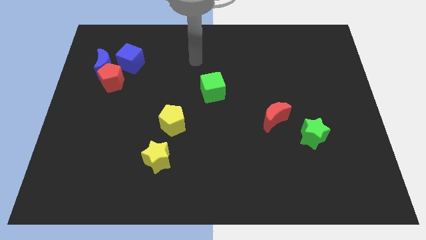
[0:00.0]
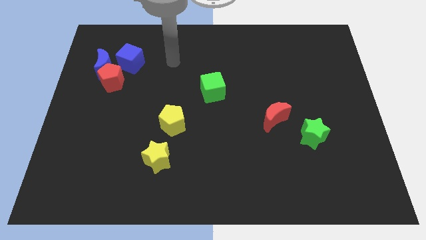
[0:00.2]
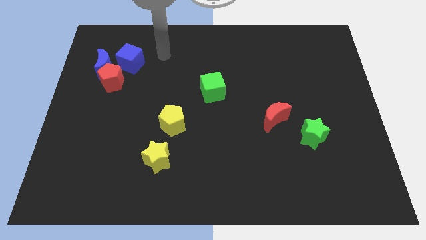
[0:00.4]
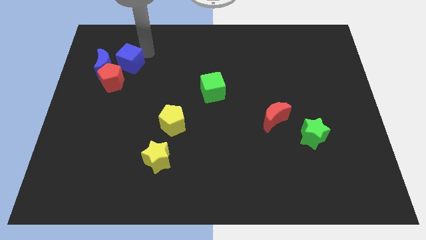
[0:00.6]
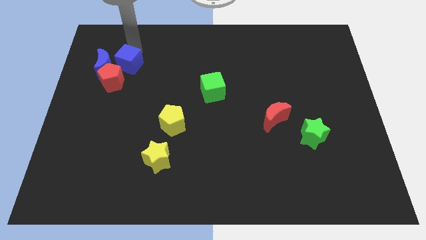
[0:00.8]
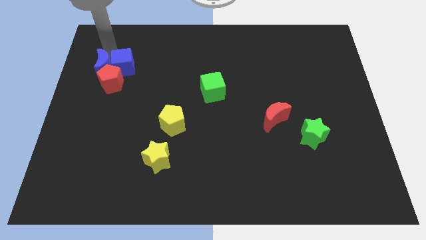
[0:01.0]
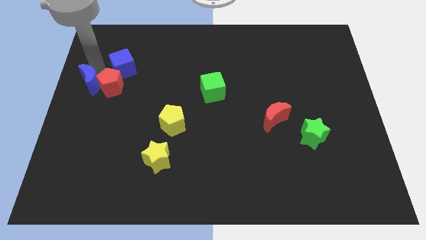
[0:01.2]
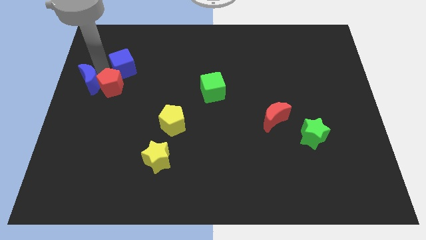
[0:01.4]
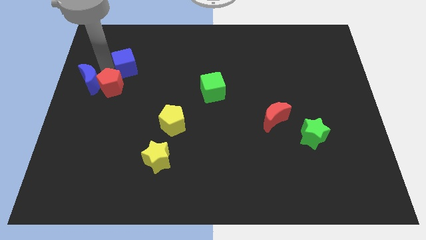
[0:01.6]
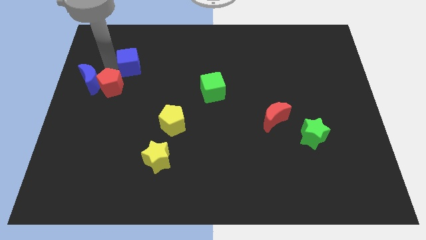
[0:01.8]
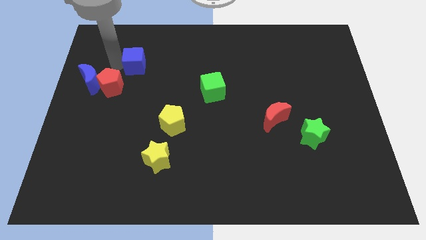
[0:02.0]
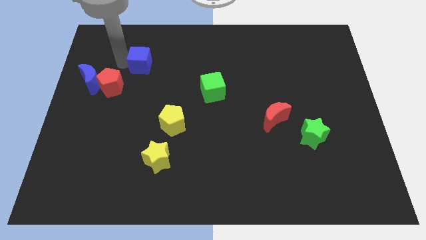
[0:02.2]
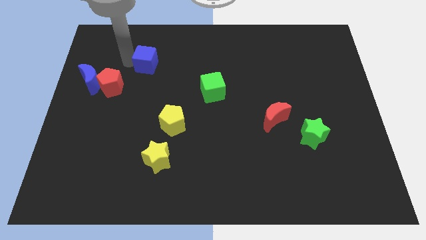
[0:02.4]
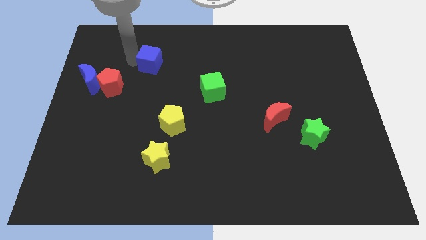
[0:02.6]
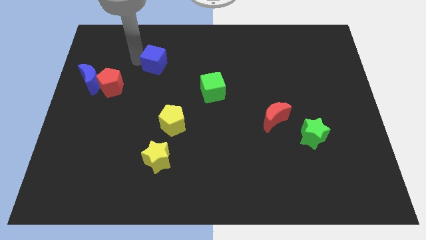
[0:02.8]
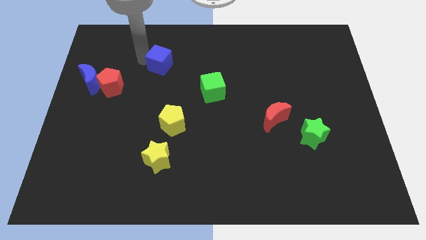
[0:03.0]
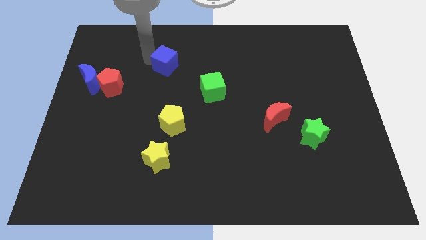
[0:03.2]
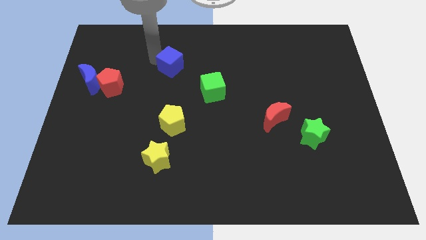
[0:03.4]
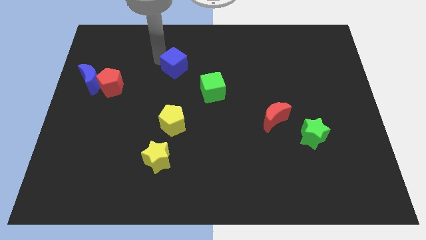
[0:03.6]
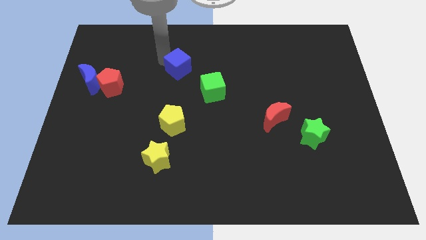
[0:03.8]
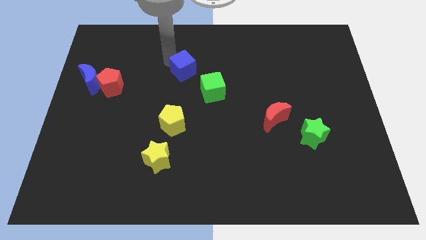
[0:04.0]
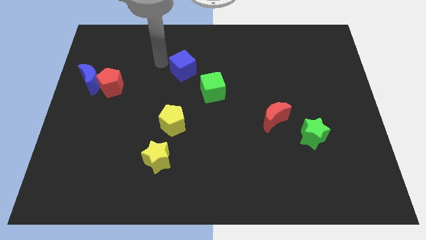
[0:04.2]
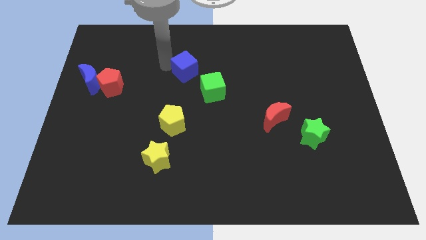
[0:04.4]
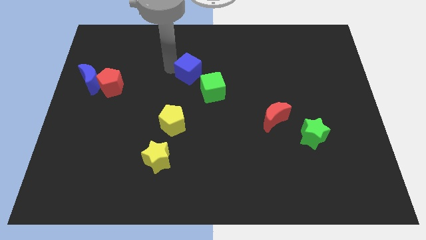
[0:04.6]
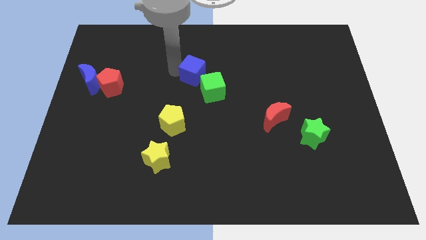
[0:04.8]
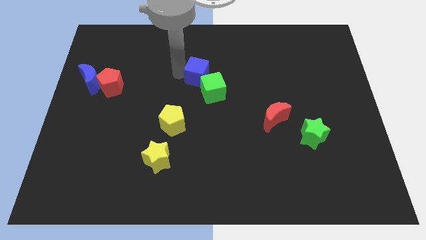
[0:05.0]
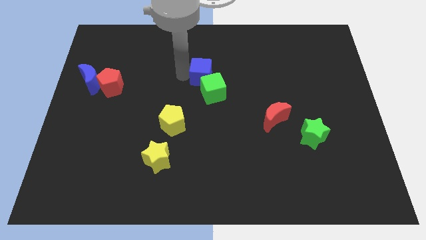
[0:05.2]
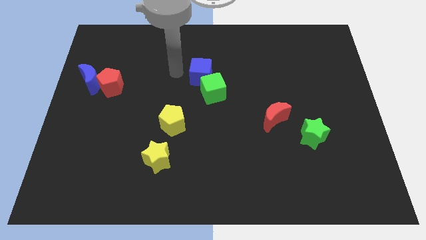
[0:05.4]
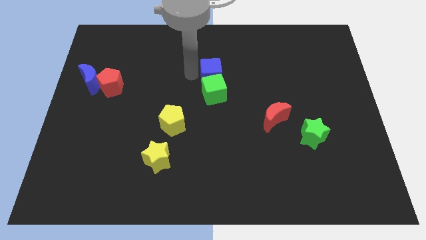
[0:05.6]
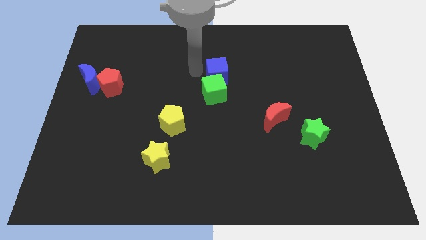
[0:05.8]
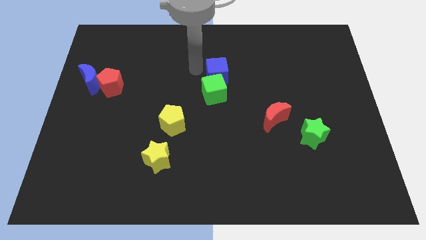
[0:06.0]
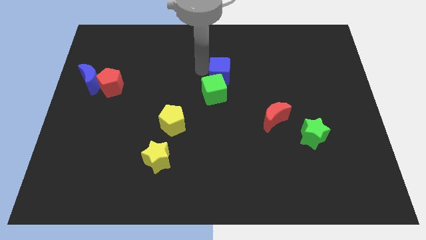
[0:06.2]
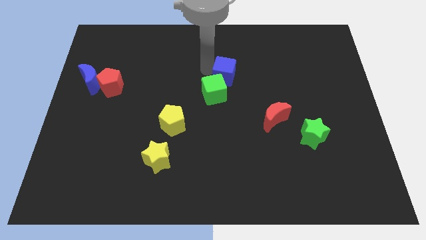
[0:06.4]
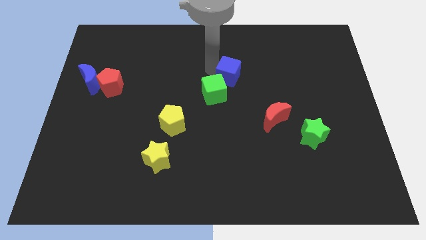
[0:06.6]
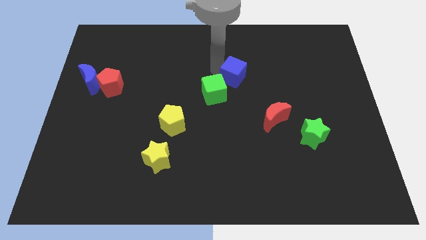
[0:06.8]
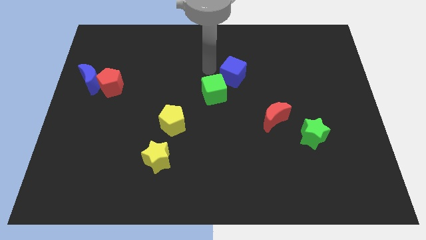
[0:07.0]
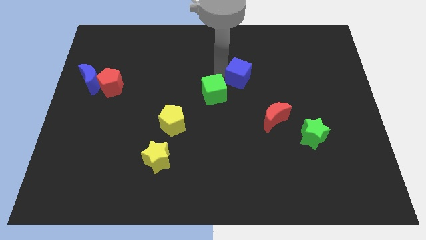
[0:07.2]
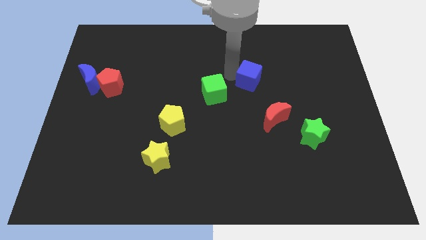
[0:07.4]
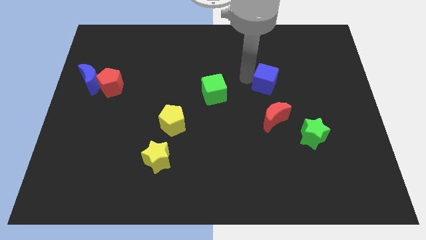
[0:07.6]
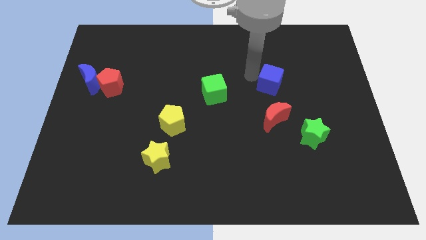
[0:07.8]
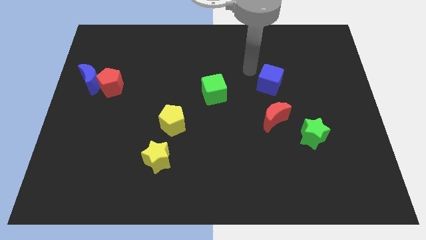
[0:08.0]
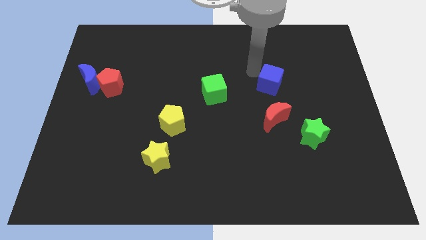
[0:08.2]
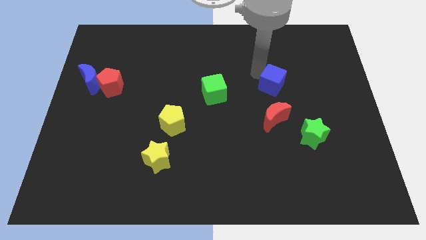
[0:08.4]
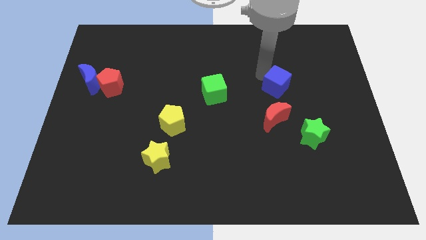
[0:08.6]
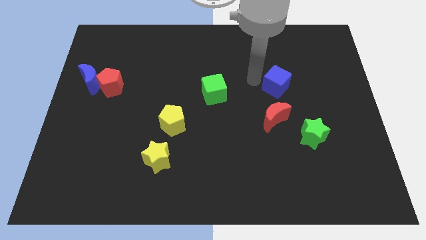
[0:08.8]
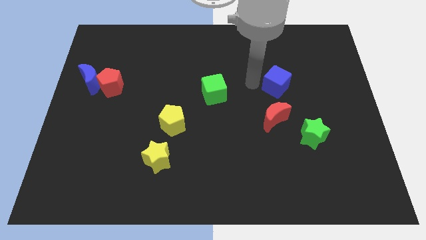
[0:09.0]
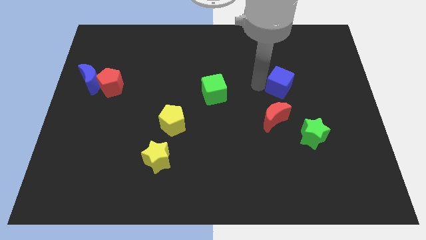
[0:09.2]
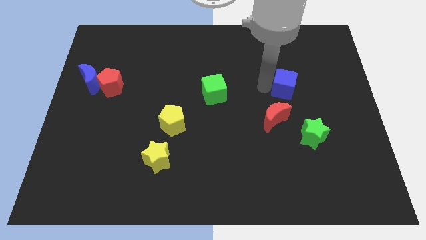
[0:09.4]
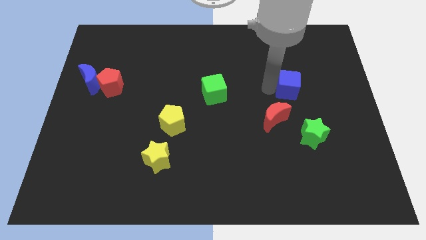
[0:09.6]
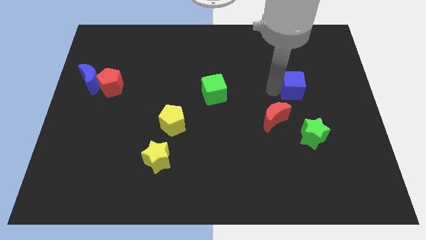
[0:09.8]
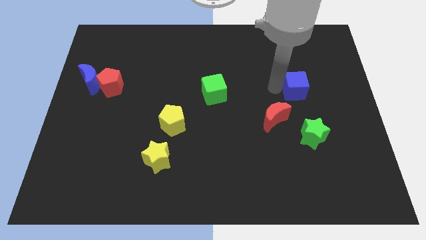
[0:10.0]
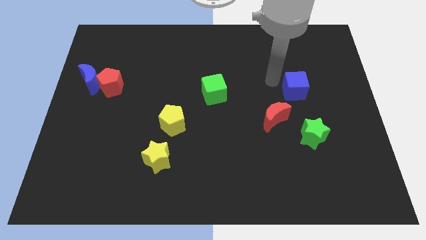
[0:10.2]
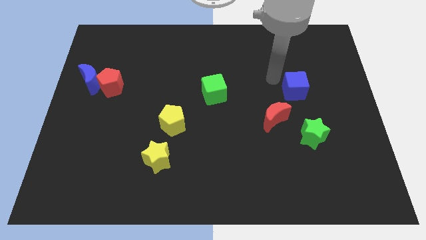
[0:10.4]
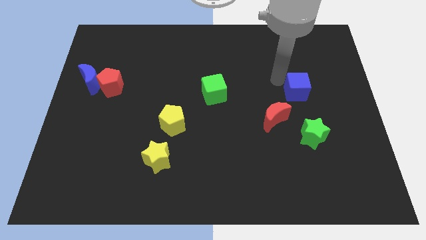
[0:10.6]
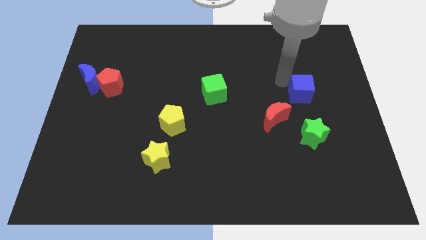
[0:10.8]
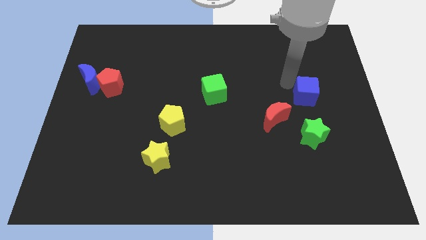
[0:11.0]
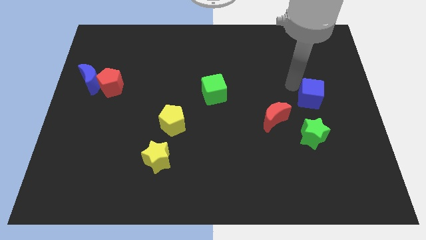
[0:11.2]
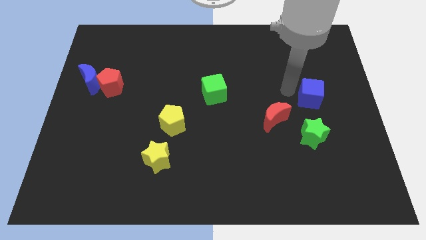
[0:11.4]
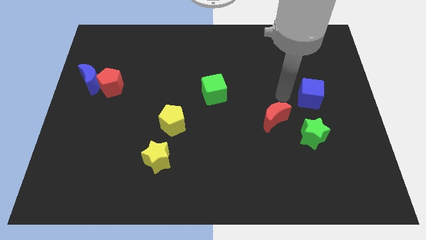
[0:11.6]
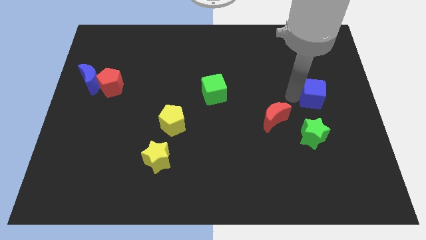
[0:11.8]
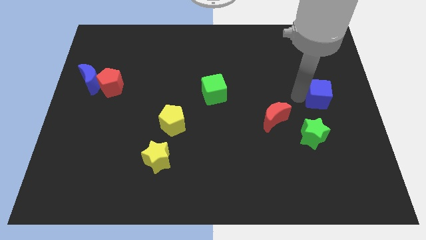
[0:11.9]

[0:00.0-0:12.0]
slide the blue cube to the right side
